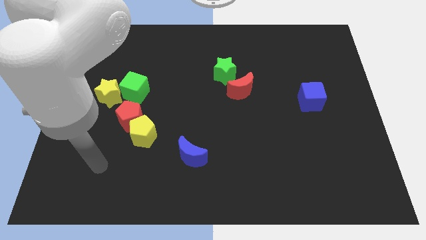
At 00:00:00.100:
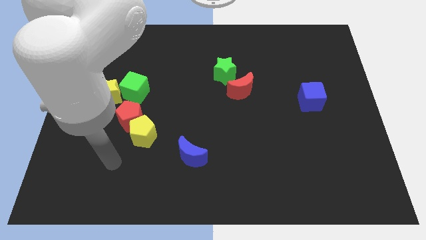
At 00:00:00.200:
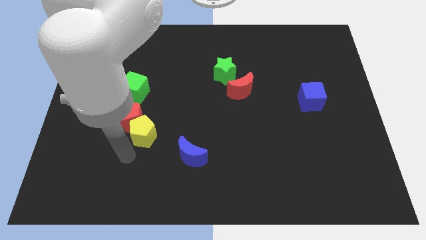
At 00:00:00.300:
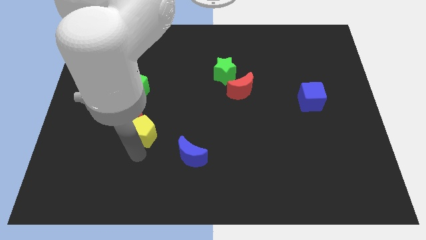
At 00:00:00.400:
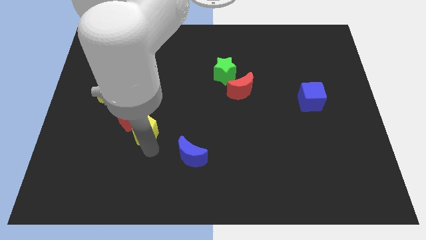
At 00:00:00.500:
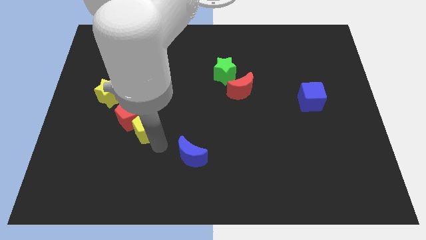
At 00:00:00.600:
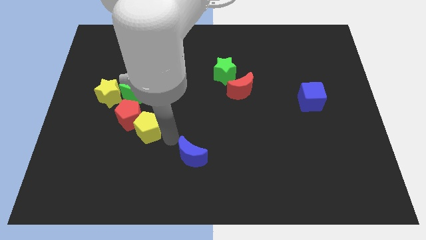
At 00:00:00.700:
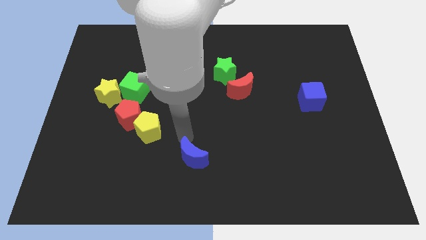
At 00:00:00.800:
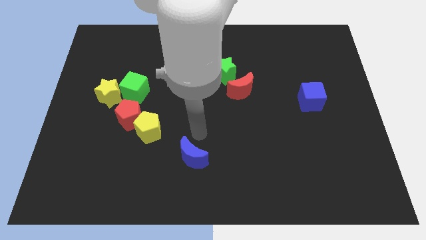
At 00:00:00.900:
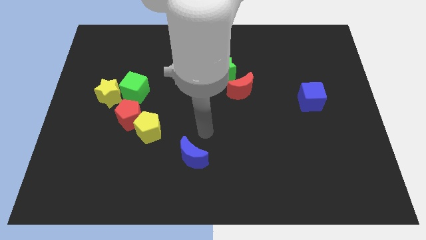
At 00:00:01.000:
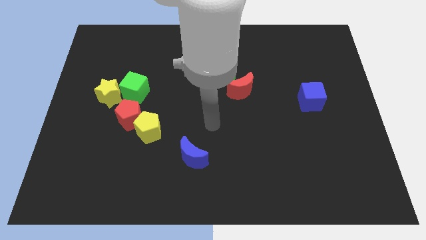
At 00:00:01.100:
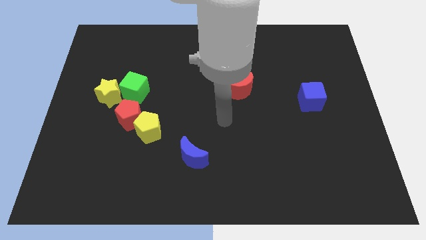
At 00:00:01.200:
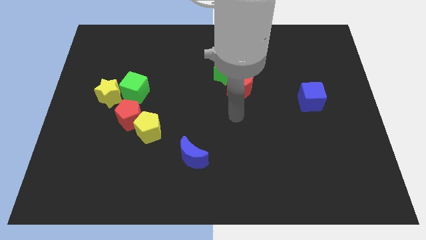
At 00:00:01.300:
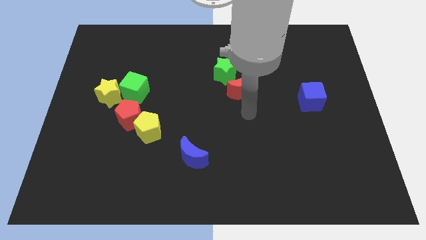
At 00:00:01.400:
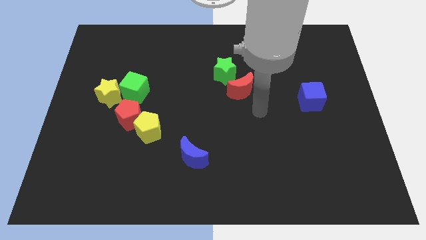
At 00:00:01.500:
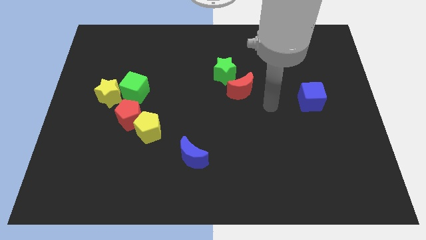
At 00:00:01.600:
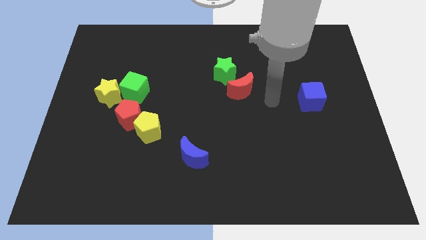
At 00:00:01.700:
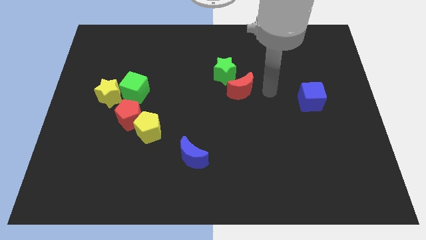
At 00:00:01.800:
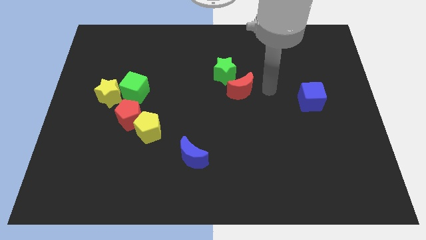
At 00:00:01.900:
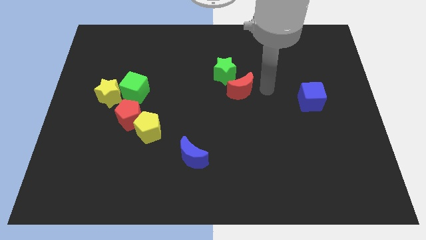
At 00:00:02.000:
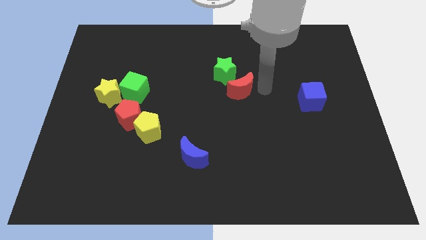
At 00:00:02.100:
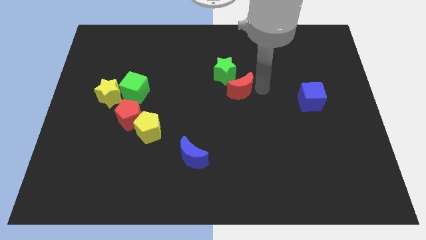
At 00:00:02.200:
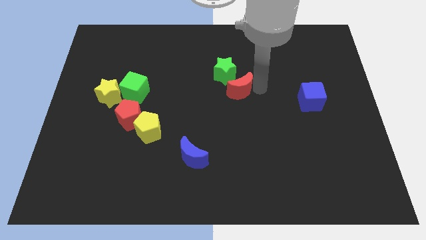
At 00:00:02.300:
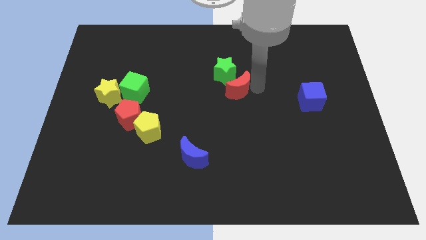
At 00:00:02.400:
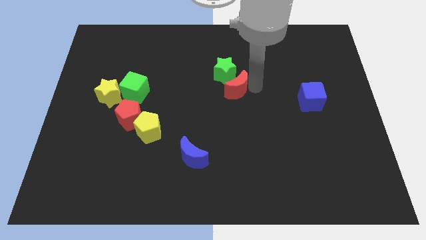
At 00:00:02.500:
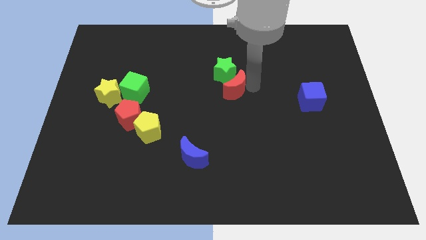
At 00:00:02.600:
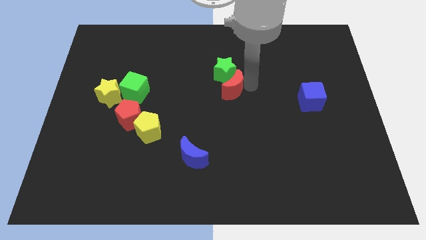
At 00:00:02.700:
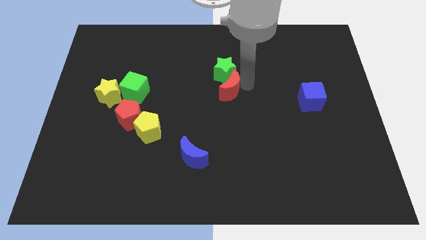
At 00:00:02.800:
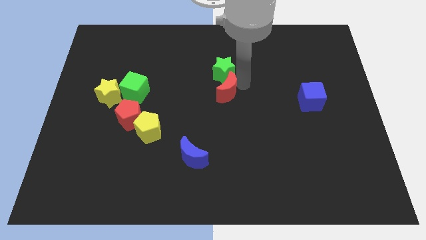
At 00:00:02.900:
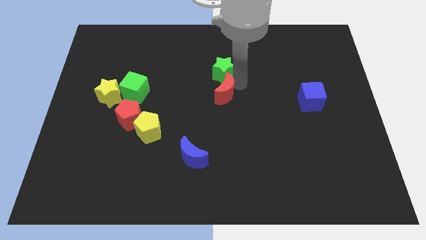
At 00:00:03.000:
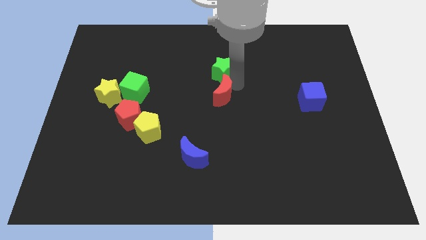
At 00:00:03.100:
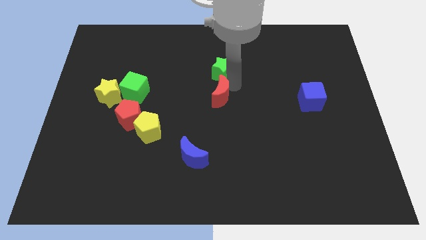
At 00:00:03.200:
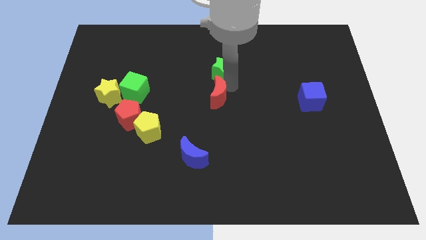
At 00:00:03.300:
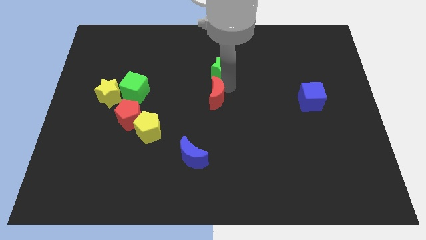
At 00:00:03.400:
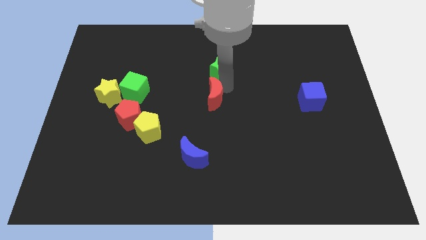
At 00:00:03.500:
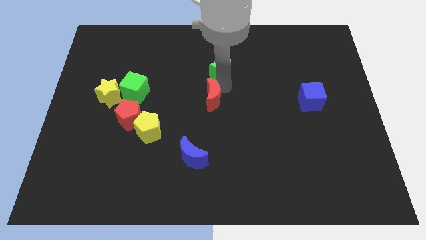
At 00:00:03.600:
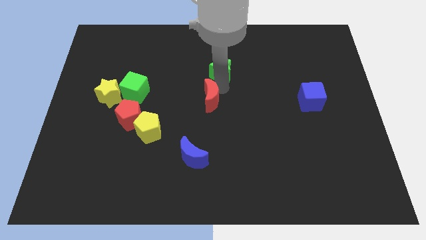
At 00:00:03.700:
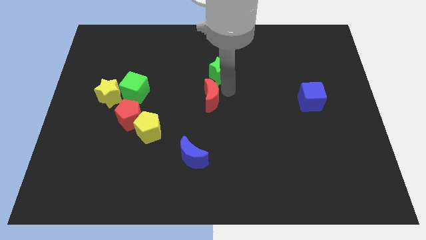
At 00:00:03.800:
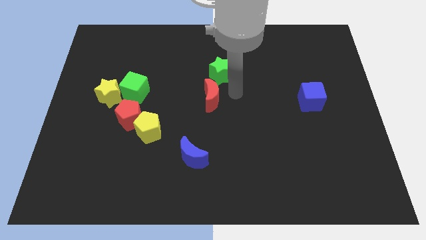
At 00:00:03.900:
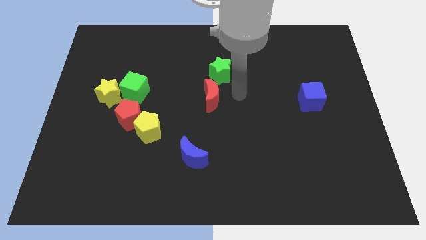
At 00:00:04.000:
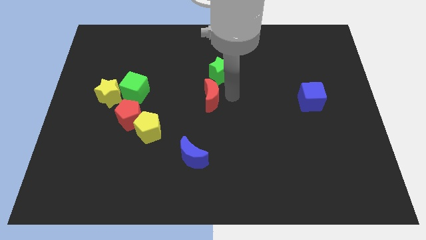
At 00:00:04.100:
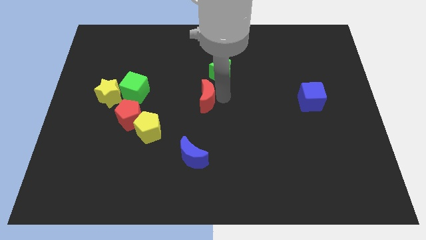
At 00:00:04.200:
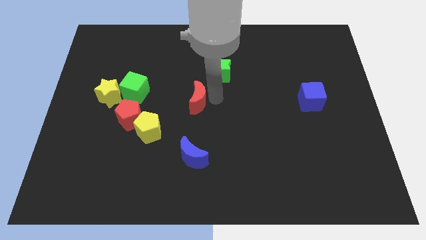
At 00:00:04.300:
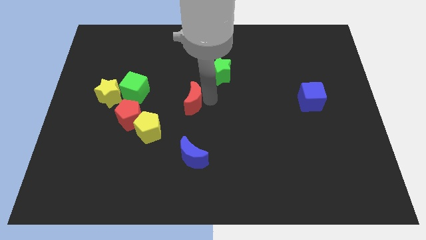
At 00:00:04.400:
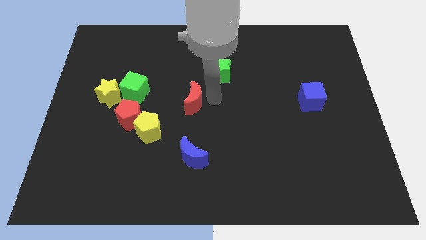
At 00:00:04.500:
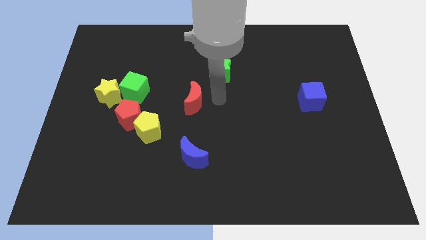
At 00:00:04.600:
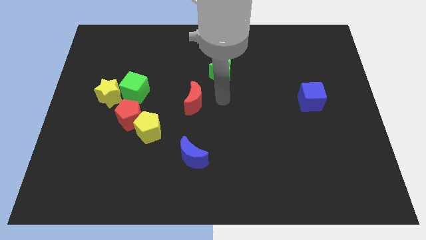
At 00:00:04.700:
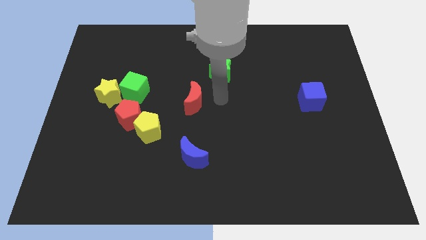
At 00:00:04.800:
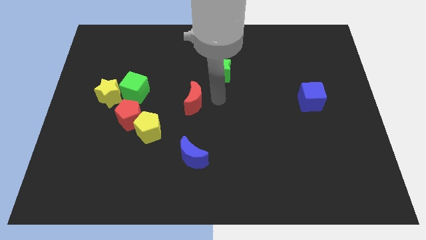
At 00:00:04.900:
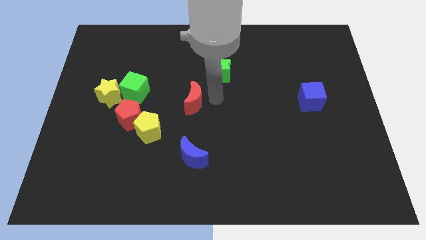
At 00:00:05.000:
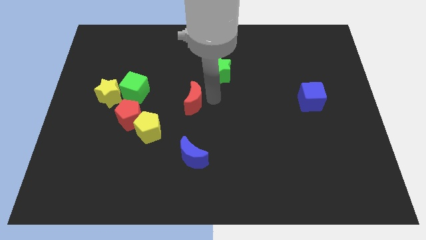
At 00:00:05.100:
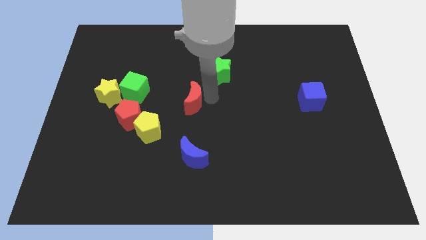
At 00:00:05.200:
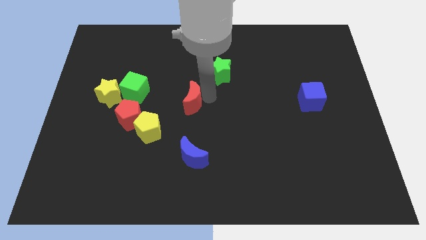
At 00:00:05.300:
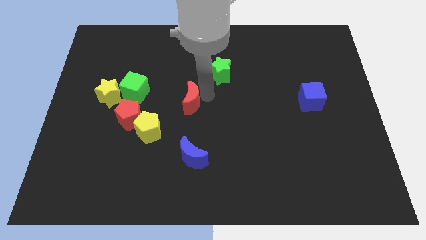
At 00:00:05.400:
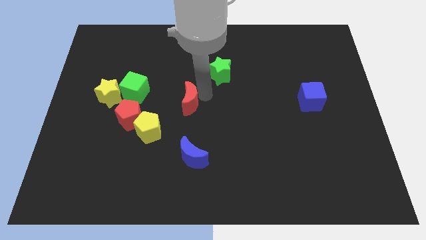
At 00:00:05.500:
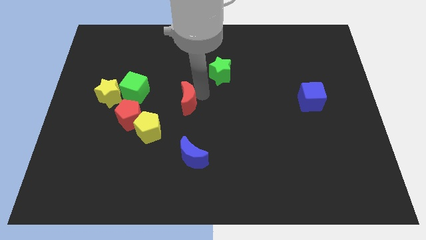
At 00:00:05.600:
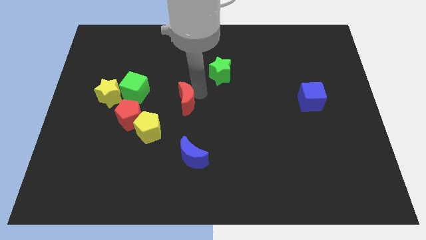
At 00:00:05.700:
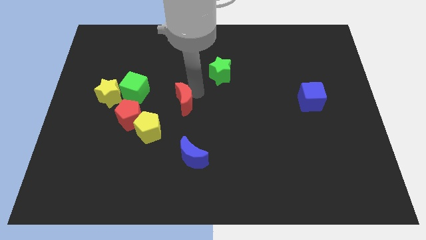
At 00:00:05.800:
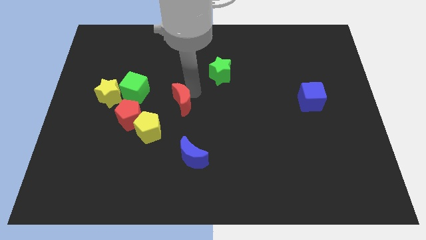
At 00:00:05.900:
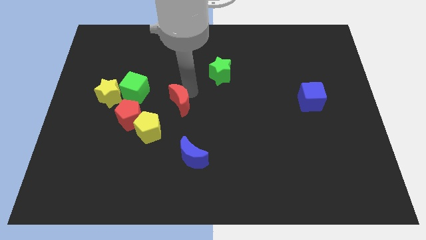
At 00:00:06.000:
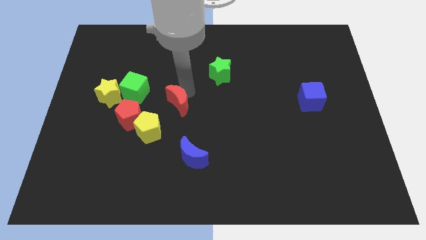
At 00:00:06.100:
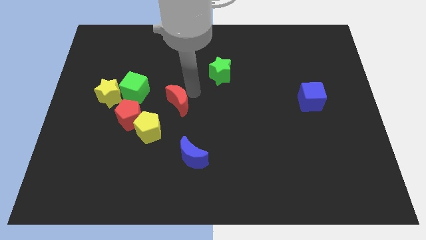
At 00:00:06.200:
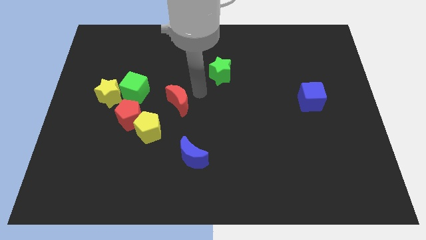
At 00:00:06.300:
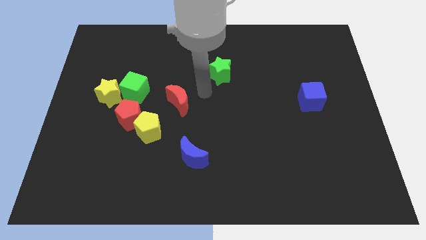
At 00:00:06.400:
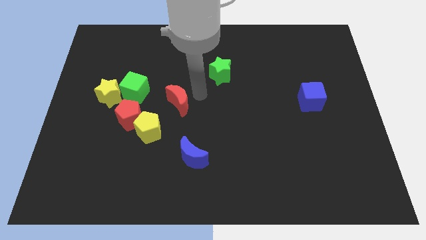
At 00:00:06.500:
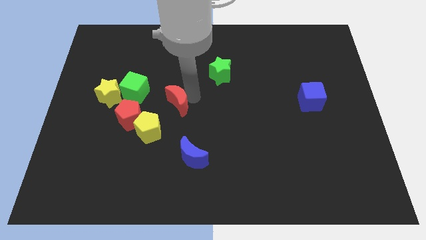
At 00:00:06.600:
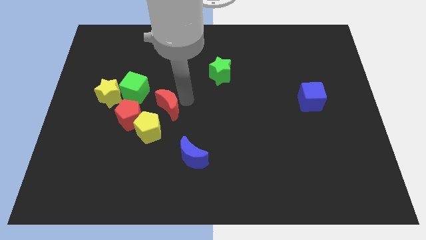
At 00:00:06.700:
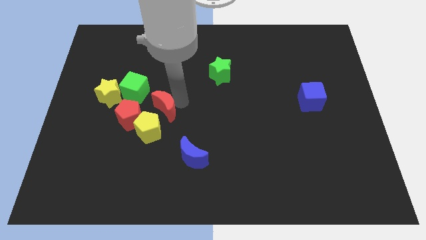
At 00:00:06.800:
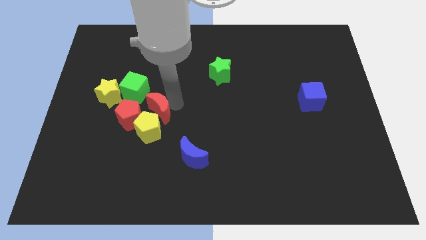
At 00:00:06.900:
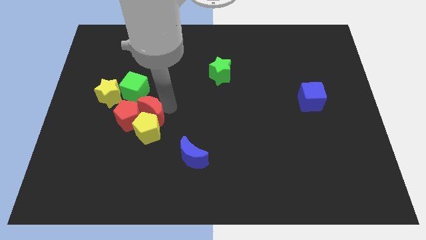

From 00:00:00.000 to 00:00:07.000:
slide the red moon to the red pentagon

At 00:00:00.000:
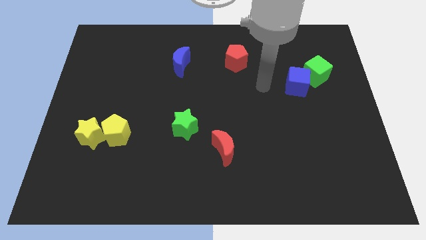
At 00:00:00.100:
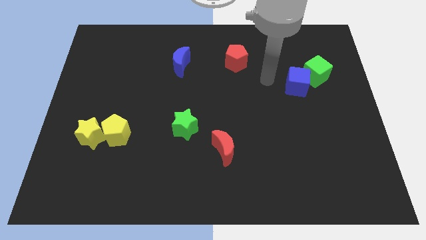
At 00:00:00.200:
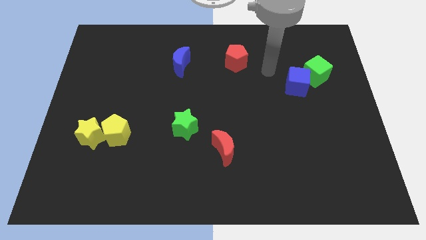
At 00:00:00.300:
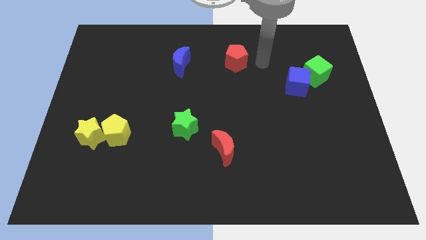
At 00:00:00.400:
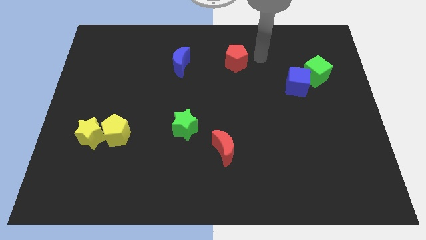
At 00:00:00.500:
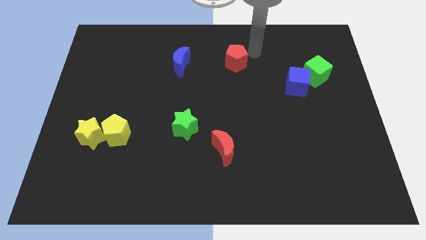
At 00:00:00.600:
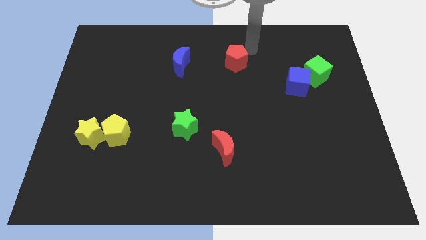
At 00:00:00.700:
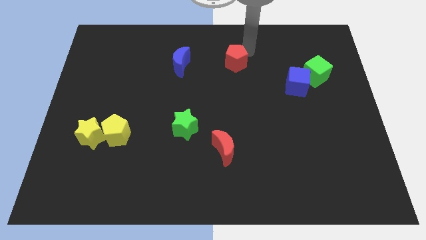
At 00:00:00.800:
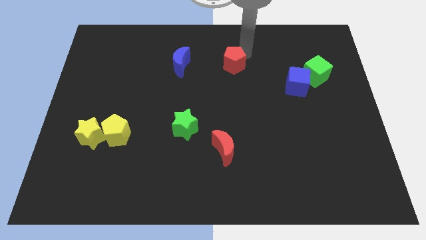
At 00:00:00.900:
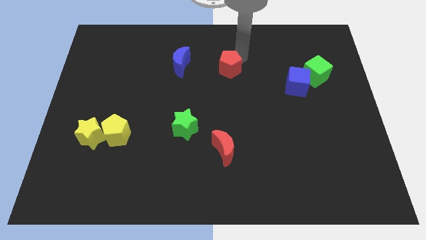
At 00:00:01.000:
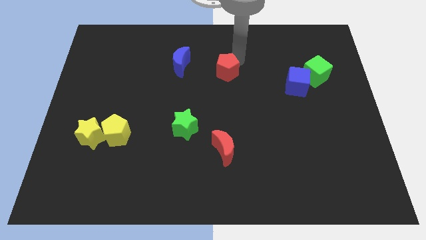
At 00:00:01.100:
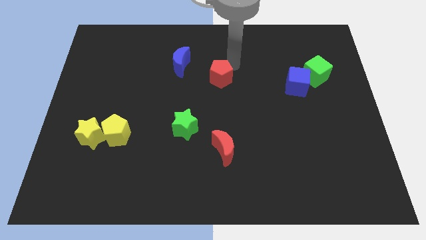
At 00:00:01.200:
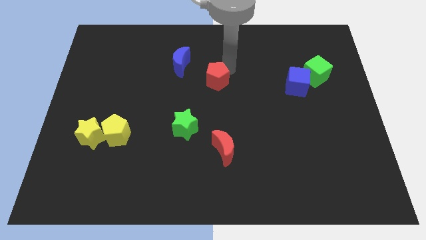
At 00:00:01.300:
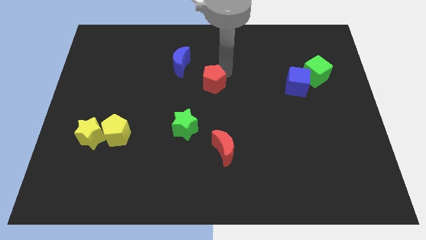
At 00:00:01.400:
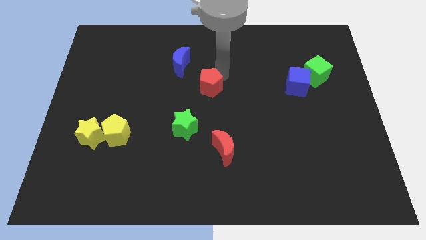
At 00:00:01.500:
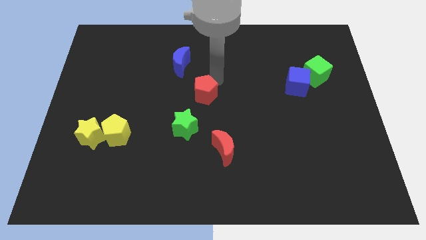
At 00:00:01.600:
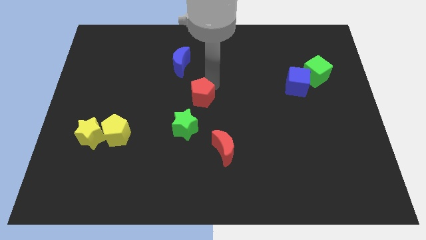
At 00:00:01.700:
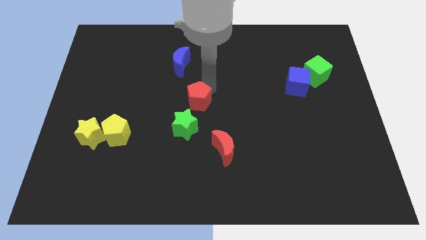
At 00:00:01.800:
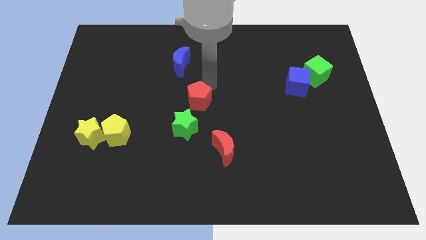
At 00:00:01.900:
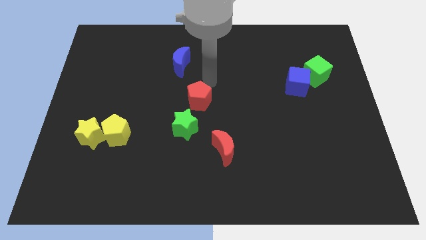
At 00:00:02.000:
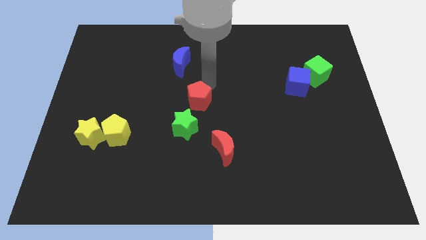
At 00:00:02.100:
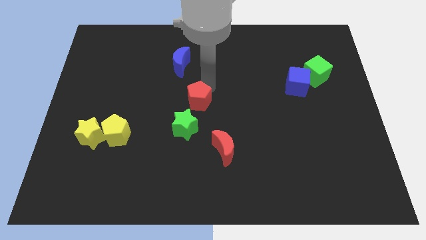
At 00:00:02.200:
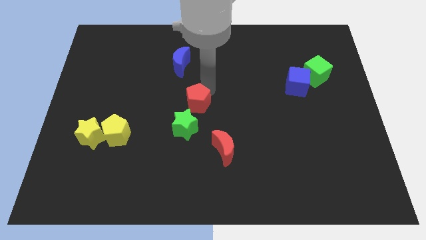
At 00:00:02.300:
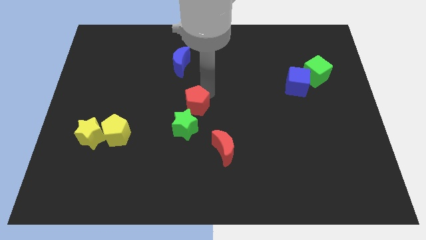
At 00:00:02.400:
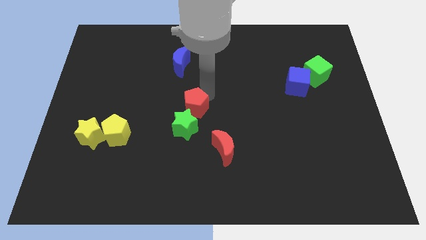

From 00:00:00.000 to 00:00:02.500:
push the red pentagon next to the green star
